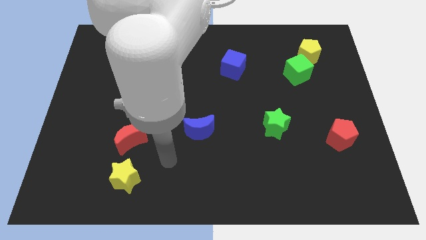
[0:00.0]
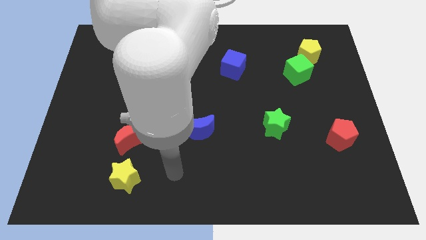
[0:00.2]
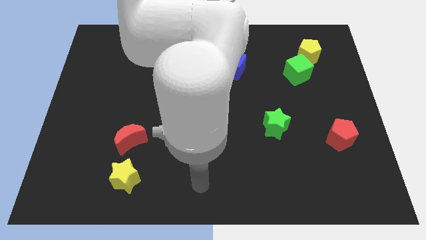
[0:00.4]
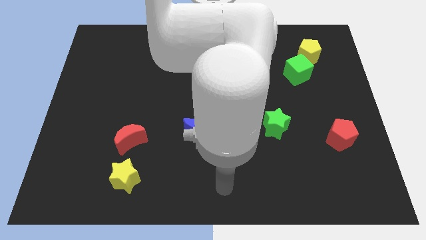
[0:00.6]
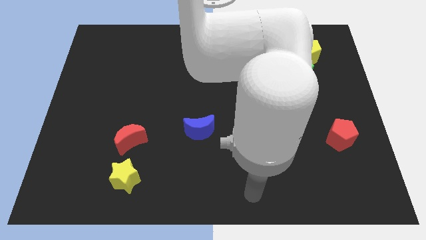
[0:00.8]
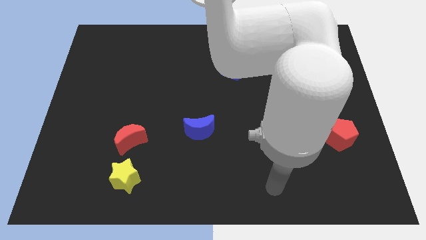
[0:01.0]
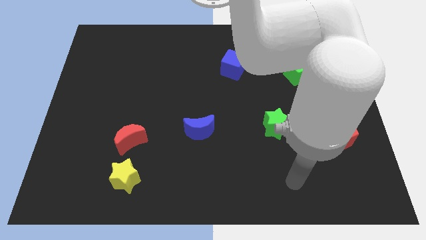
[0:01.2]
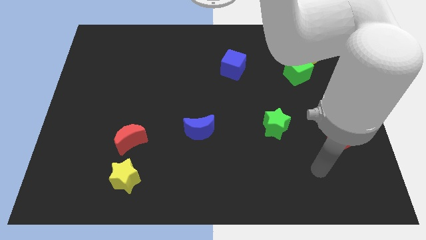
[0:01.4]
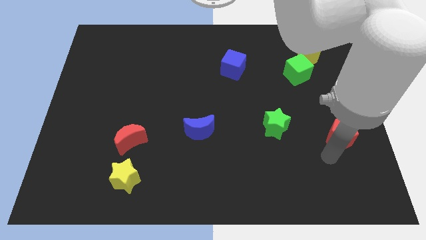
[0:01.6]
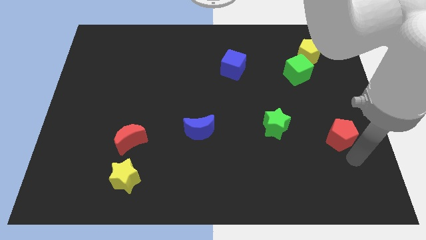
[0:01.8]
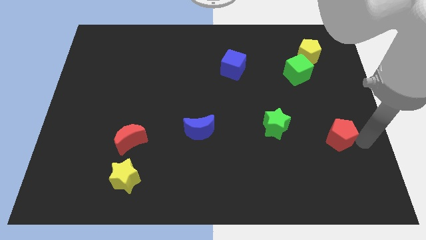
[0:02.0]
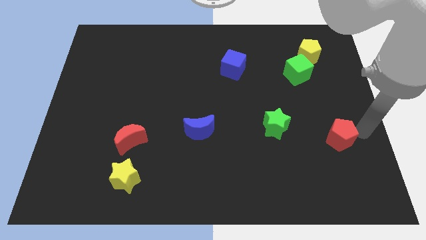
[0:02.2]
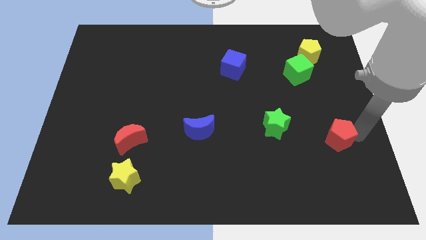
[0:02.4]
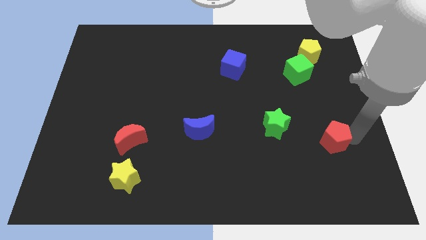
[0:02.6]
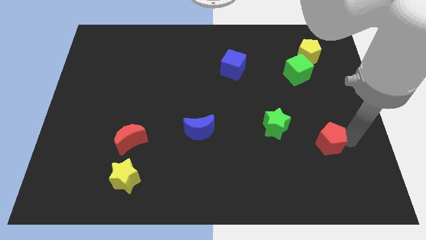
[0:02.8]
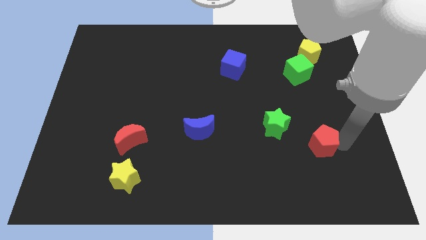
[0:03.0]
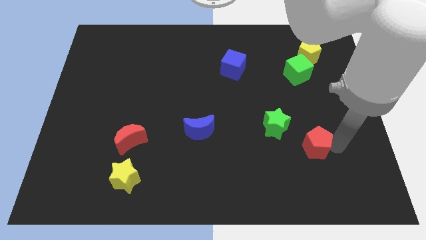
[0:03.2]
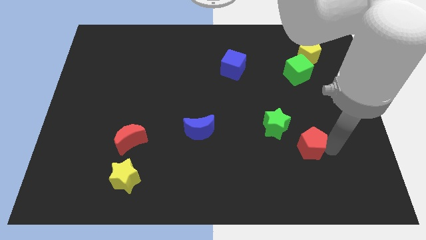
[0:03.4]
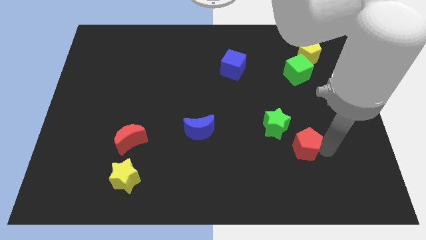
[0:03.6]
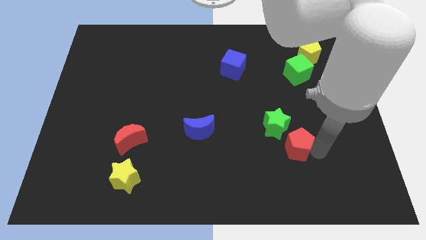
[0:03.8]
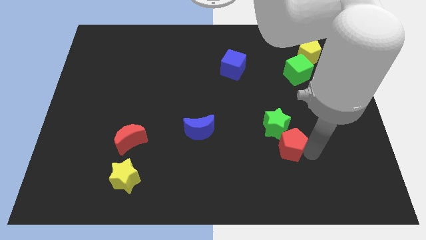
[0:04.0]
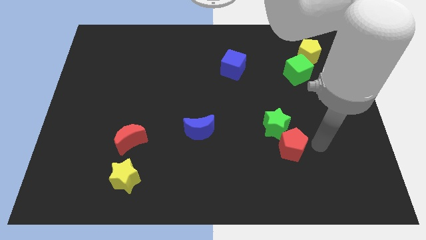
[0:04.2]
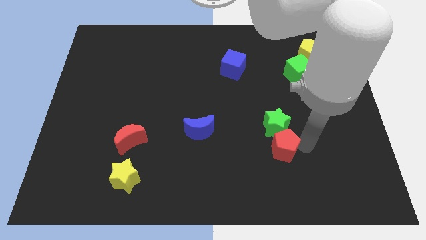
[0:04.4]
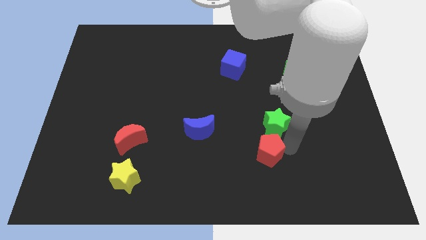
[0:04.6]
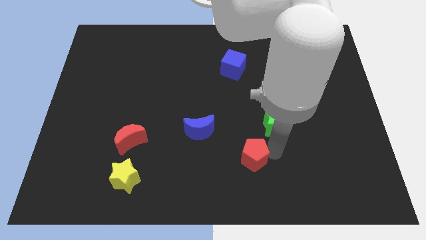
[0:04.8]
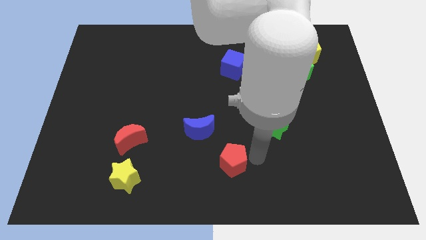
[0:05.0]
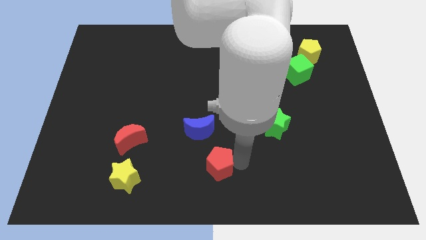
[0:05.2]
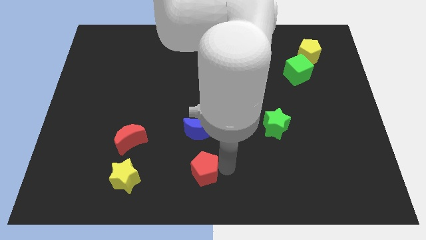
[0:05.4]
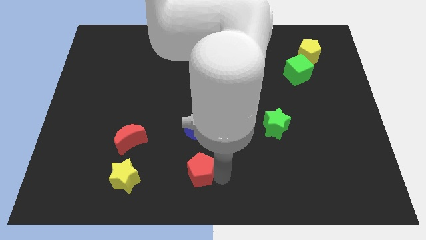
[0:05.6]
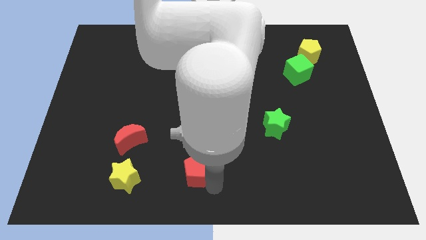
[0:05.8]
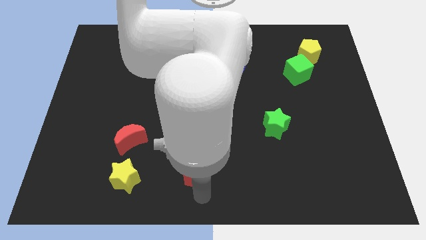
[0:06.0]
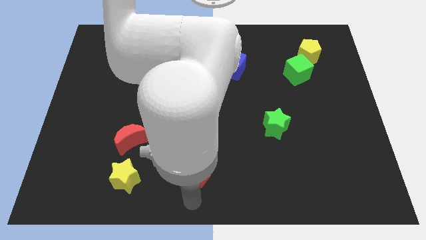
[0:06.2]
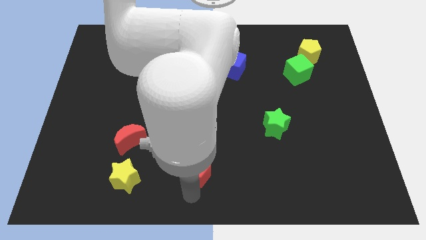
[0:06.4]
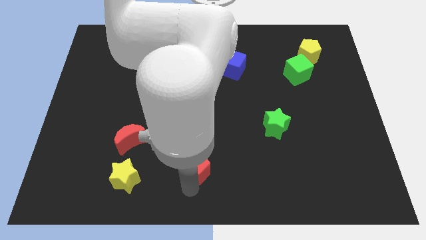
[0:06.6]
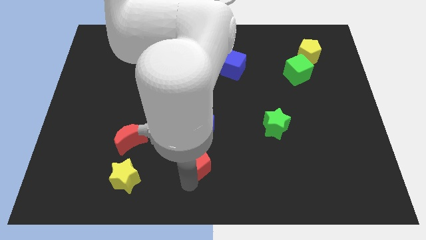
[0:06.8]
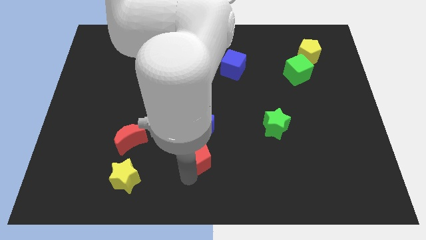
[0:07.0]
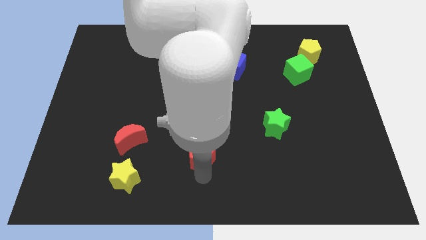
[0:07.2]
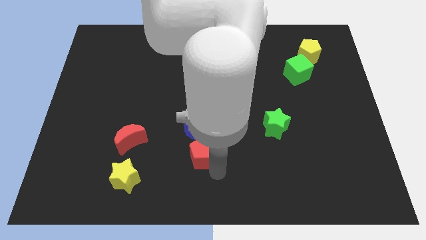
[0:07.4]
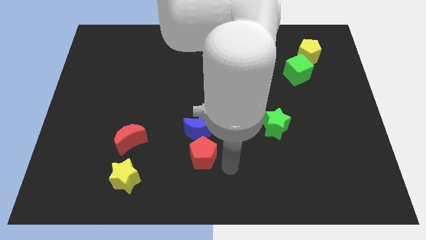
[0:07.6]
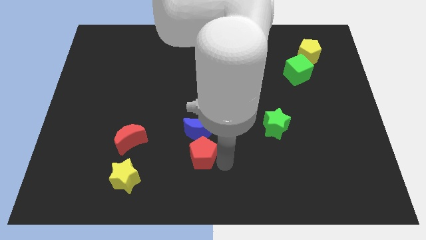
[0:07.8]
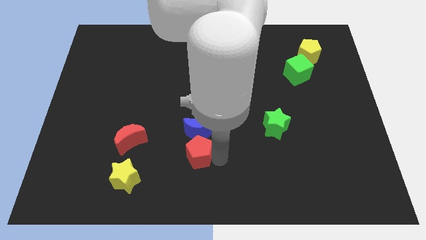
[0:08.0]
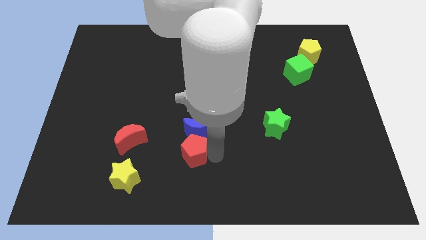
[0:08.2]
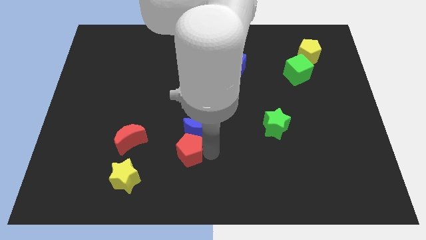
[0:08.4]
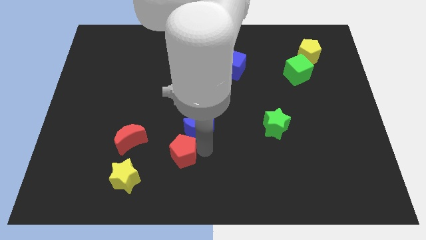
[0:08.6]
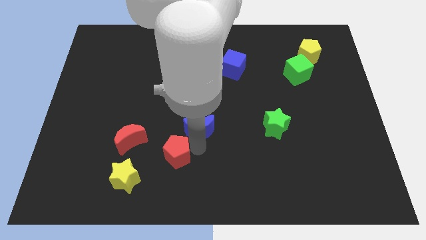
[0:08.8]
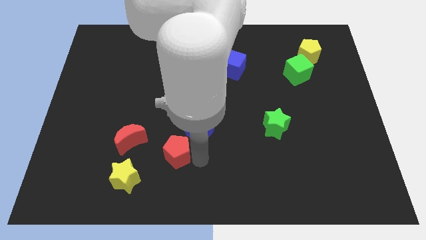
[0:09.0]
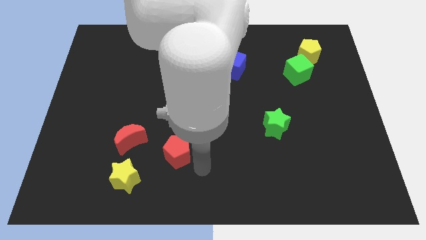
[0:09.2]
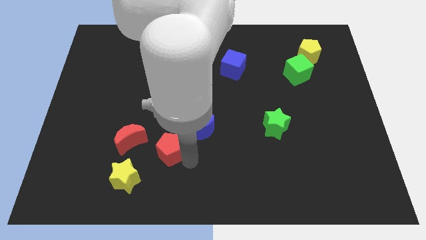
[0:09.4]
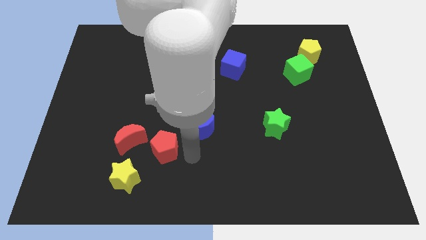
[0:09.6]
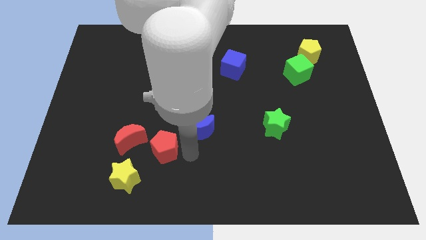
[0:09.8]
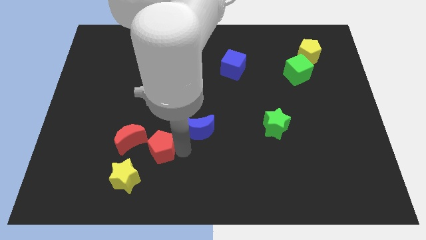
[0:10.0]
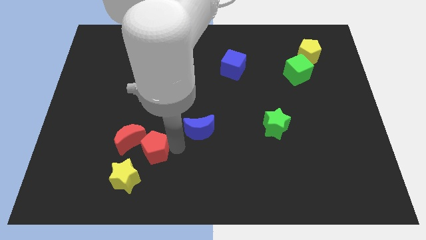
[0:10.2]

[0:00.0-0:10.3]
push the red pentagon towards the red moon

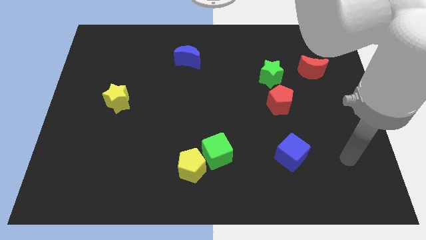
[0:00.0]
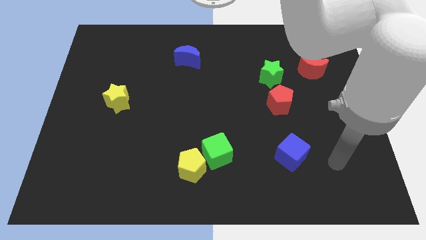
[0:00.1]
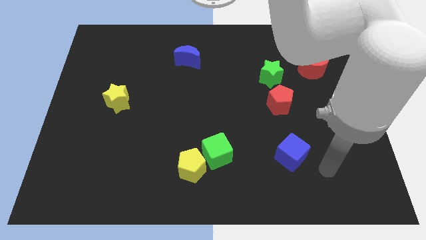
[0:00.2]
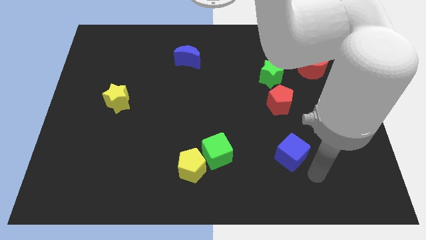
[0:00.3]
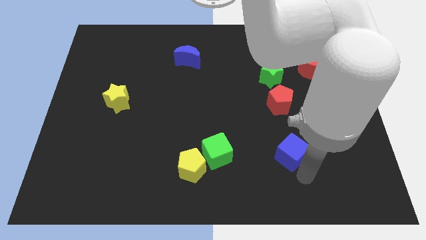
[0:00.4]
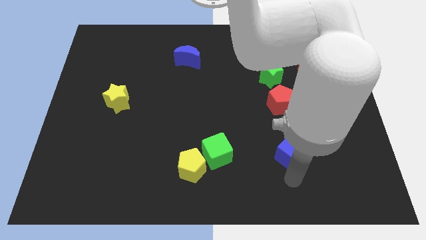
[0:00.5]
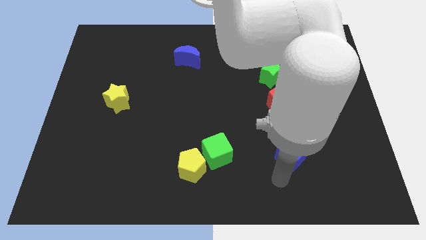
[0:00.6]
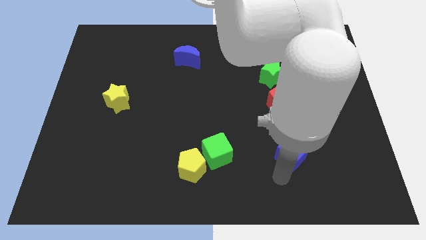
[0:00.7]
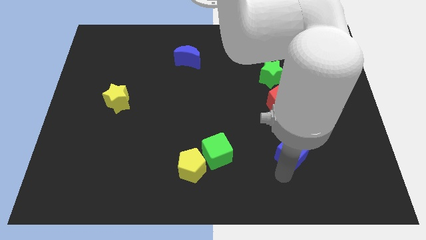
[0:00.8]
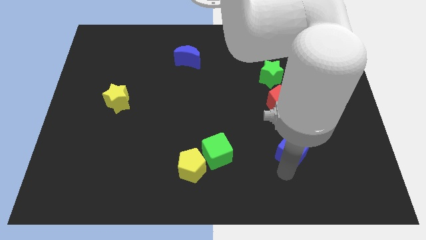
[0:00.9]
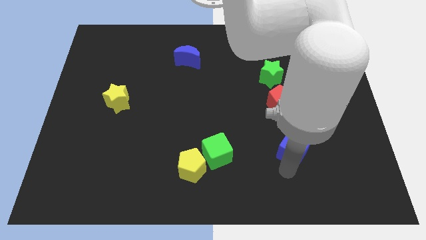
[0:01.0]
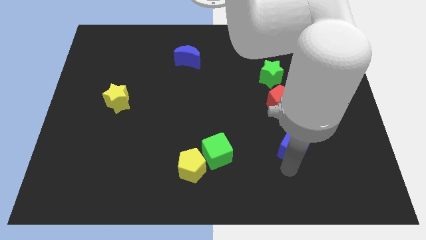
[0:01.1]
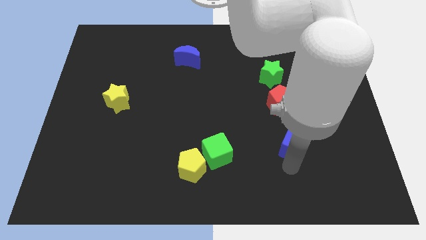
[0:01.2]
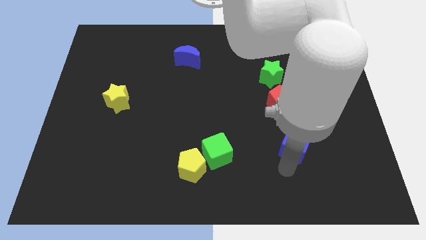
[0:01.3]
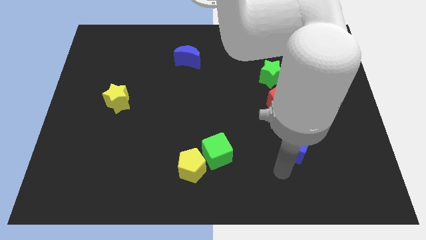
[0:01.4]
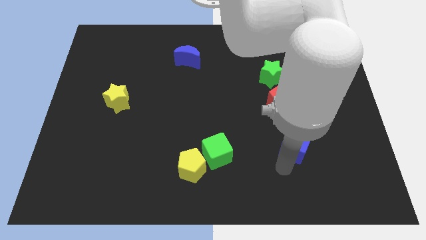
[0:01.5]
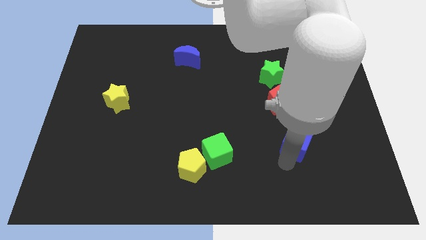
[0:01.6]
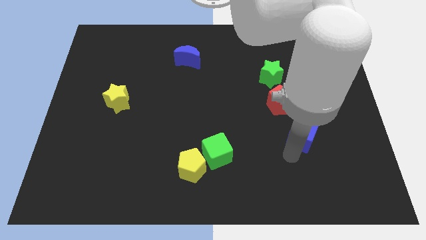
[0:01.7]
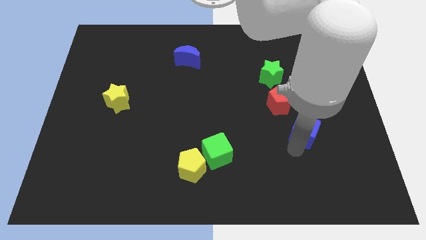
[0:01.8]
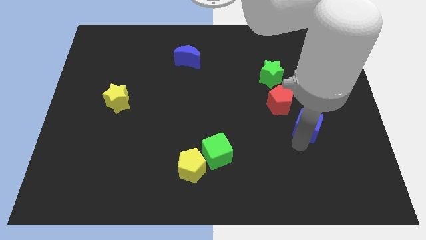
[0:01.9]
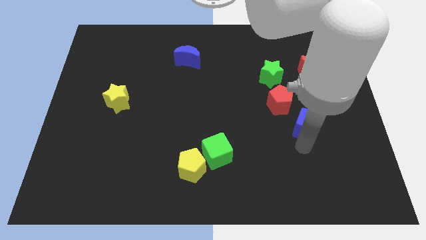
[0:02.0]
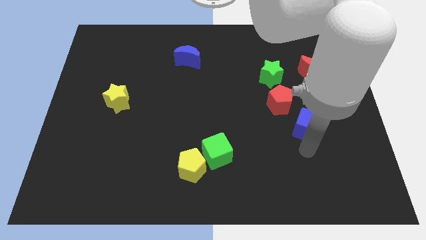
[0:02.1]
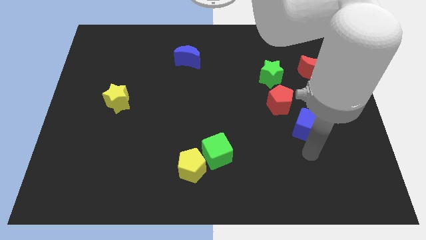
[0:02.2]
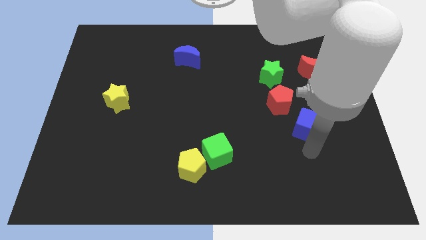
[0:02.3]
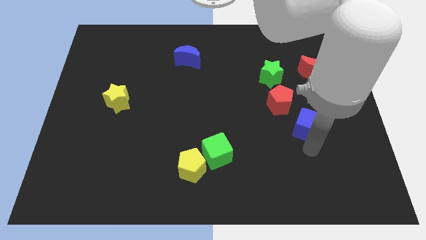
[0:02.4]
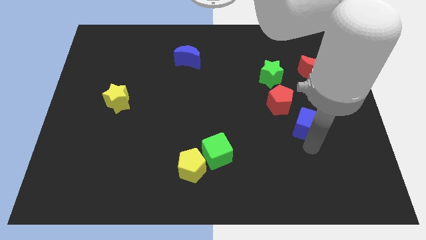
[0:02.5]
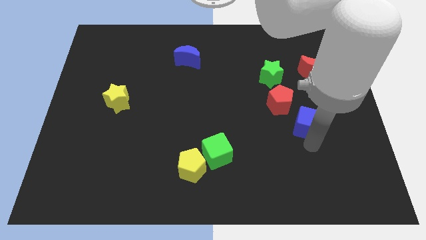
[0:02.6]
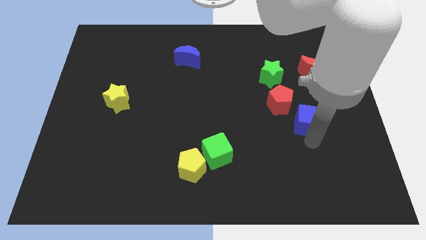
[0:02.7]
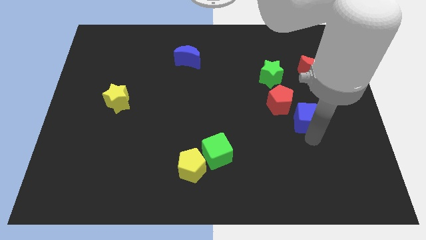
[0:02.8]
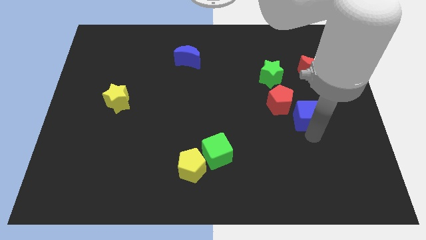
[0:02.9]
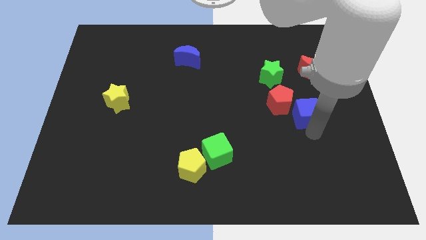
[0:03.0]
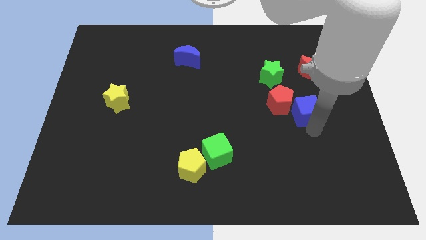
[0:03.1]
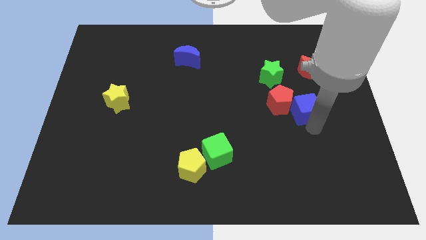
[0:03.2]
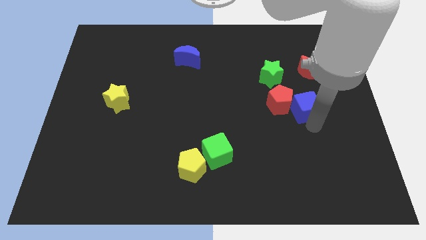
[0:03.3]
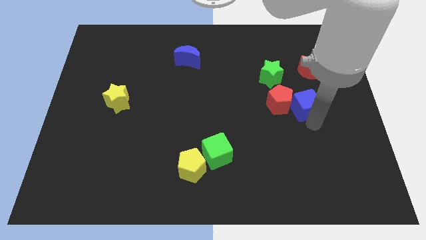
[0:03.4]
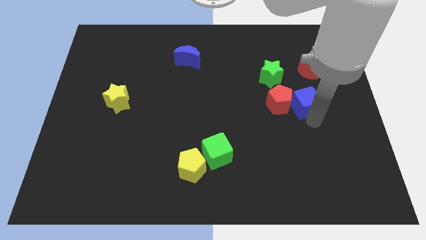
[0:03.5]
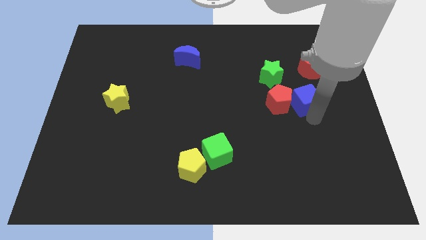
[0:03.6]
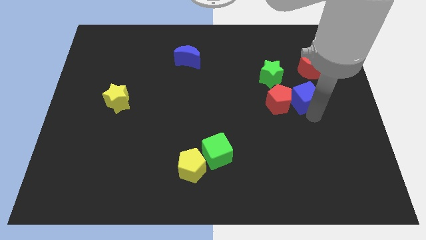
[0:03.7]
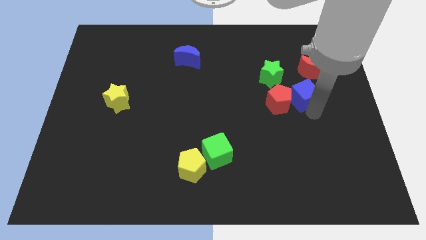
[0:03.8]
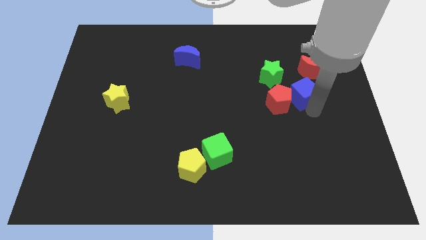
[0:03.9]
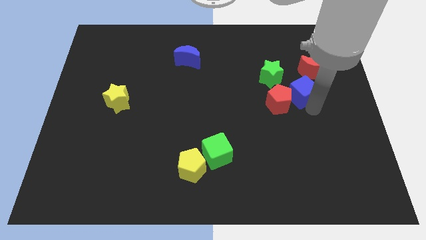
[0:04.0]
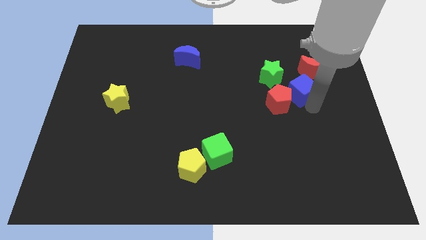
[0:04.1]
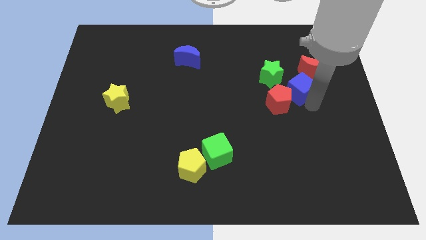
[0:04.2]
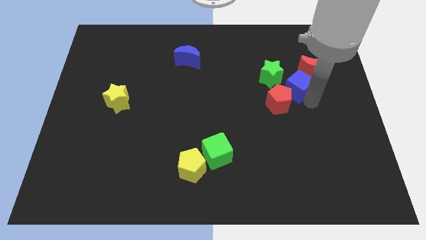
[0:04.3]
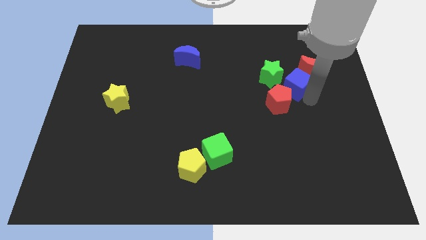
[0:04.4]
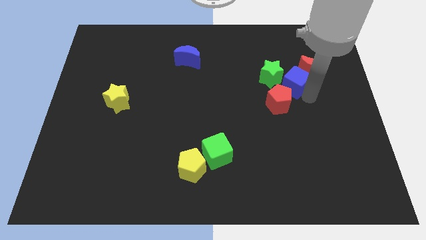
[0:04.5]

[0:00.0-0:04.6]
move the blue cube towards the green star
